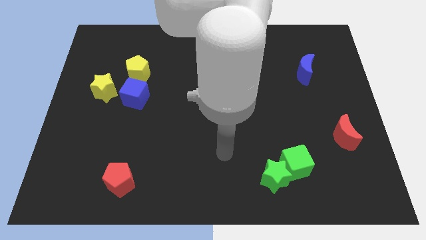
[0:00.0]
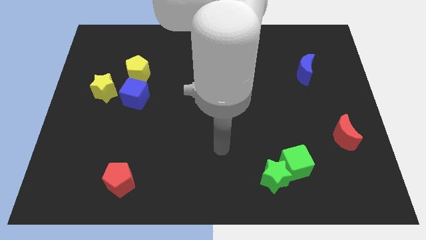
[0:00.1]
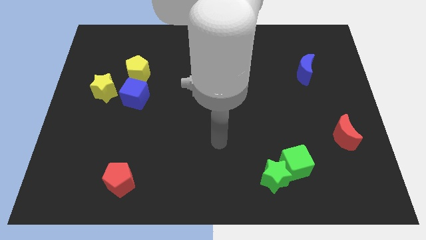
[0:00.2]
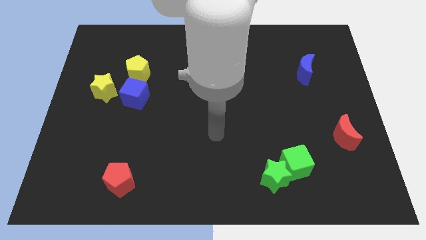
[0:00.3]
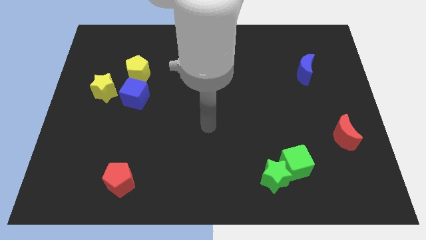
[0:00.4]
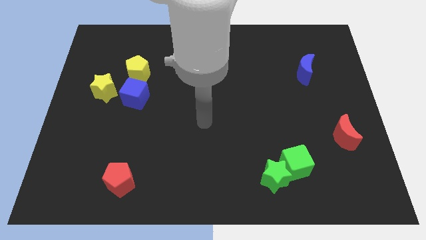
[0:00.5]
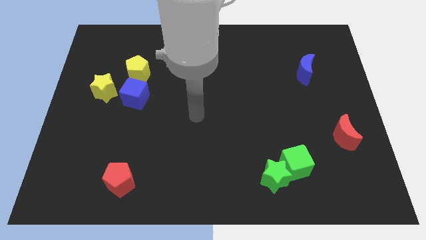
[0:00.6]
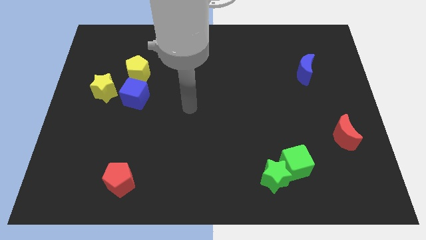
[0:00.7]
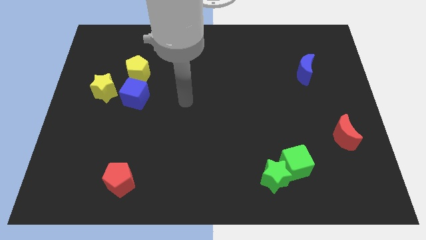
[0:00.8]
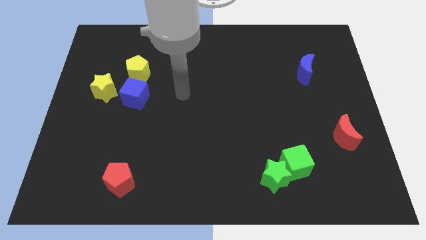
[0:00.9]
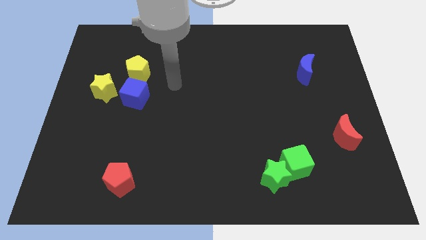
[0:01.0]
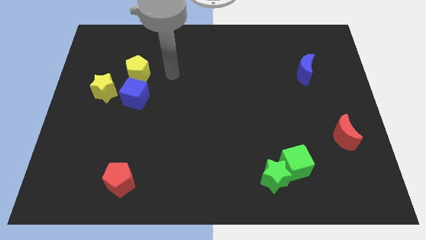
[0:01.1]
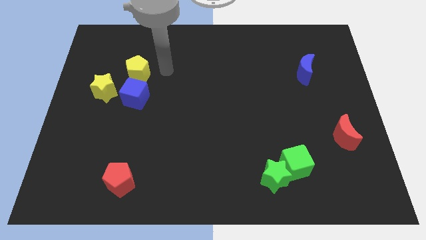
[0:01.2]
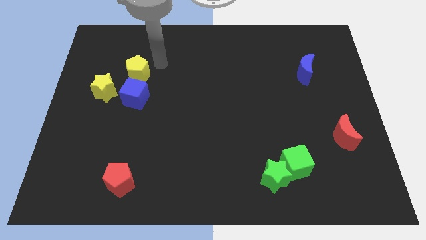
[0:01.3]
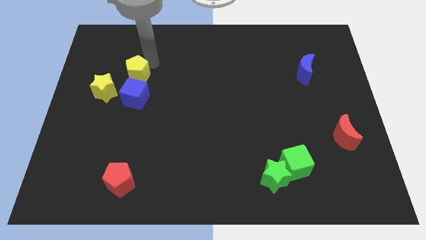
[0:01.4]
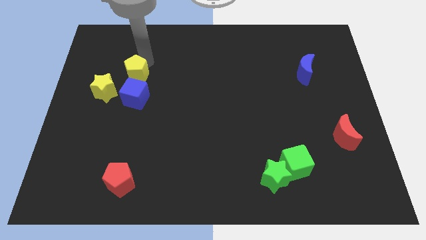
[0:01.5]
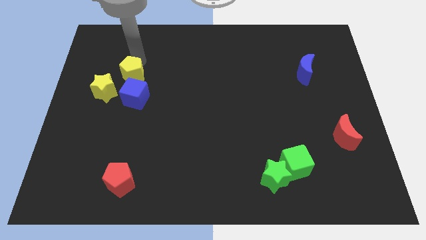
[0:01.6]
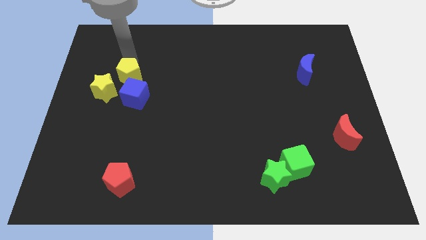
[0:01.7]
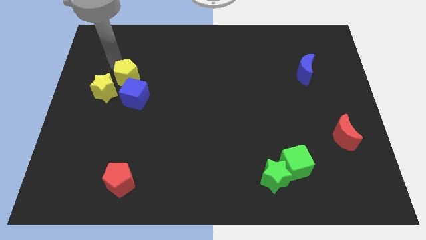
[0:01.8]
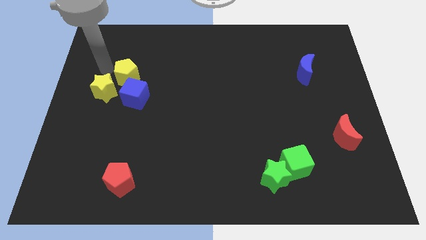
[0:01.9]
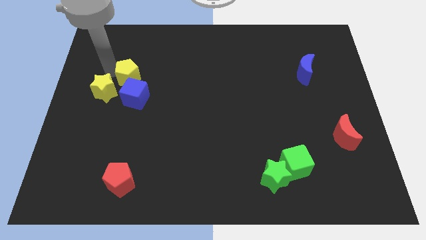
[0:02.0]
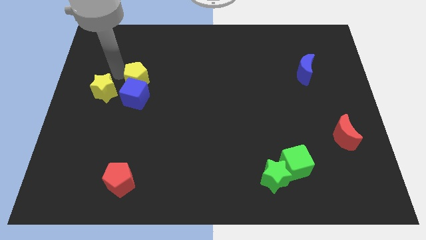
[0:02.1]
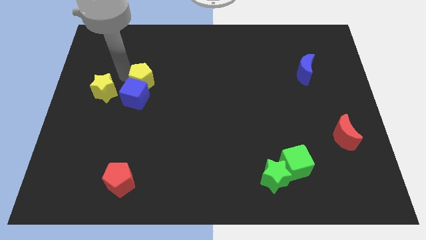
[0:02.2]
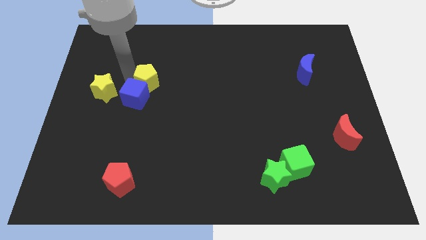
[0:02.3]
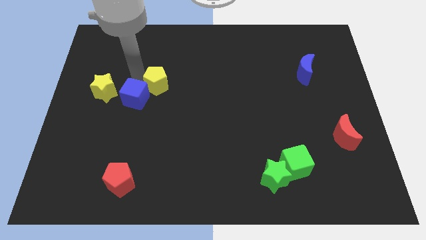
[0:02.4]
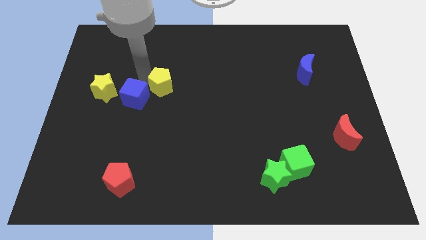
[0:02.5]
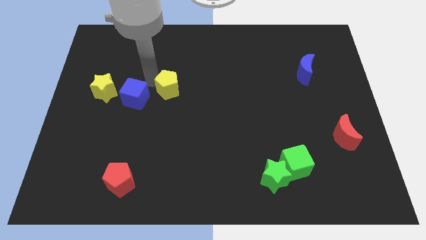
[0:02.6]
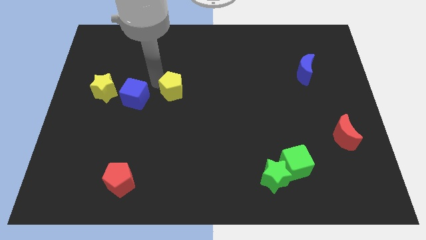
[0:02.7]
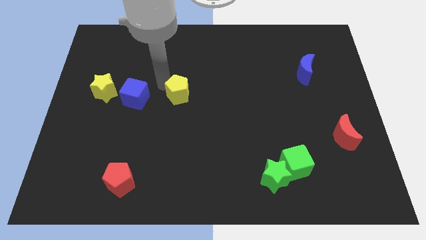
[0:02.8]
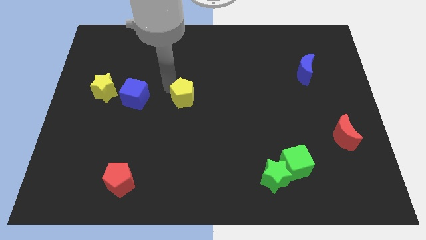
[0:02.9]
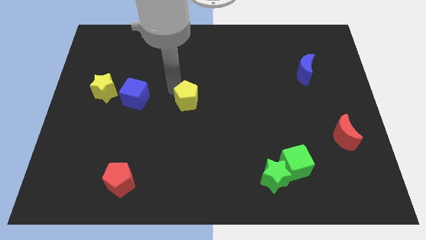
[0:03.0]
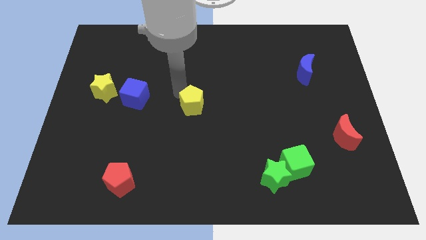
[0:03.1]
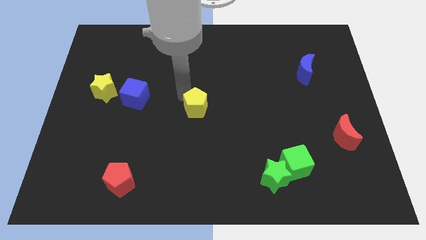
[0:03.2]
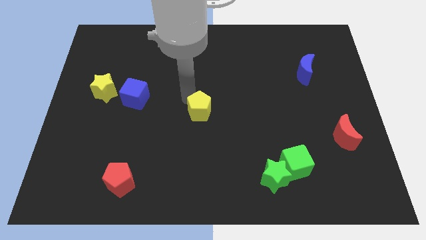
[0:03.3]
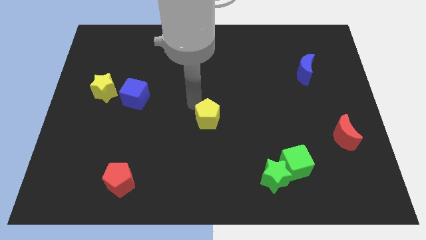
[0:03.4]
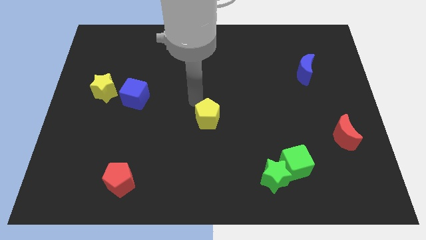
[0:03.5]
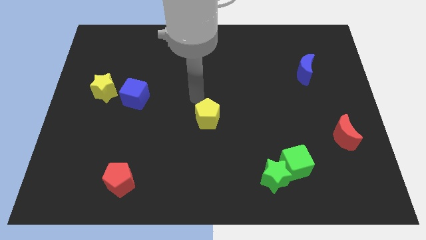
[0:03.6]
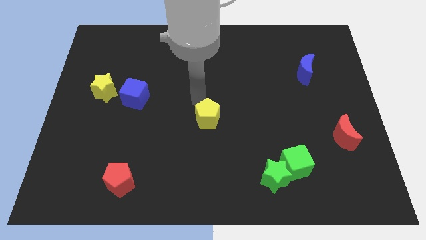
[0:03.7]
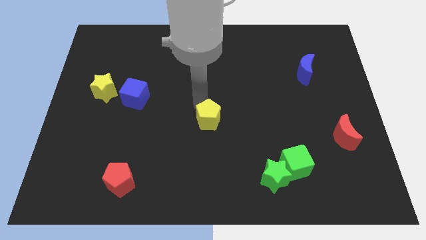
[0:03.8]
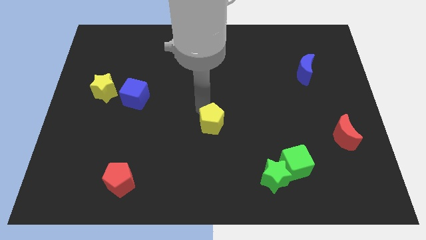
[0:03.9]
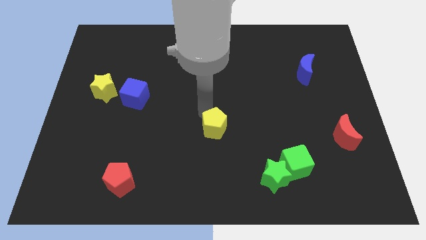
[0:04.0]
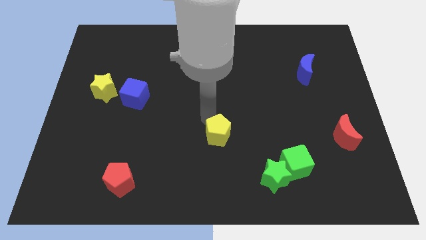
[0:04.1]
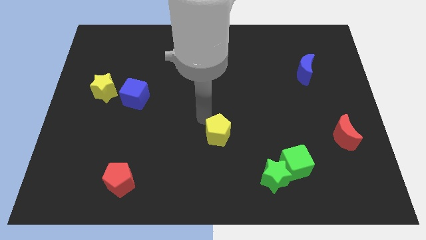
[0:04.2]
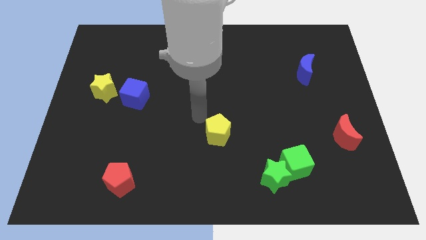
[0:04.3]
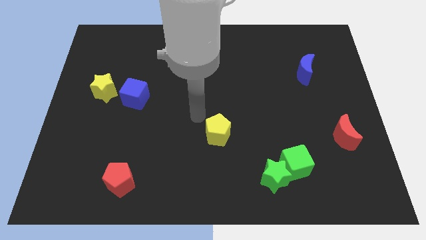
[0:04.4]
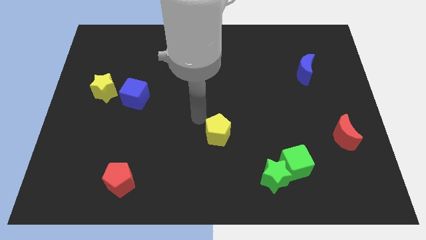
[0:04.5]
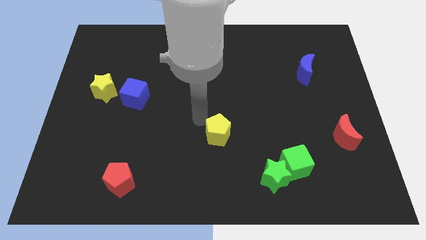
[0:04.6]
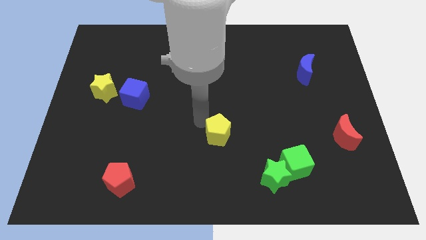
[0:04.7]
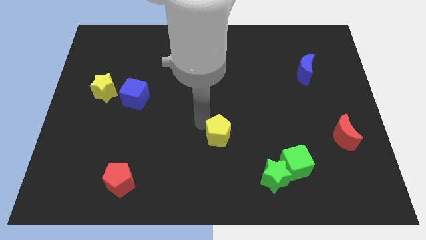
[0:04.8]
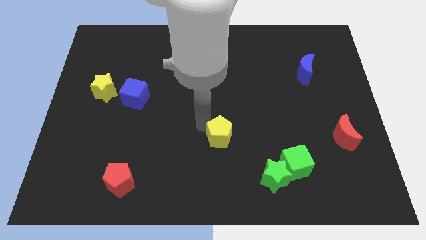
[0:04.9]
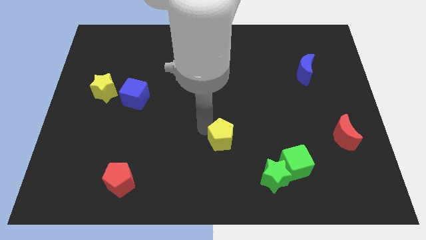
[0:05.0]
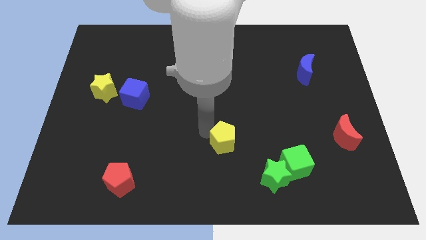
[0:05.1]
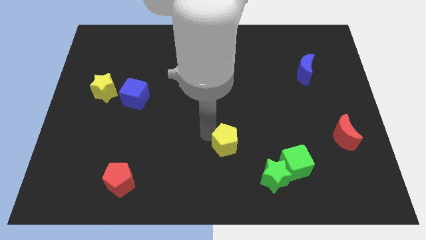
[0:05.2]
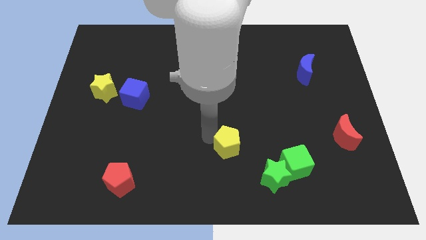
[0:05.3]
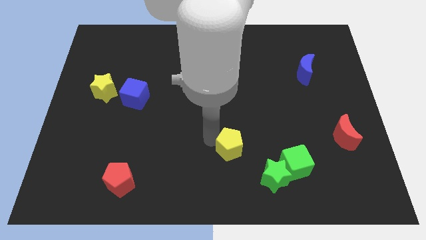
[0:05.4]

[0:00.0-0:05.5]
push the yellow pentagon just left of the green cube

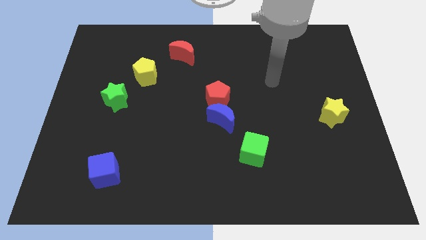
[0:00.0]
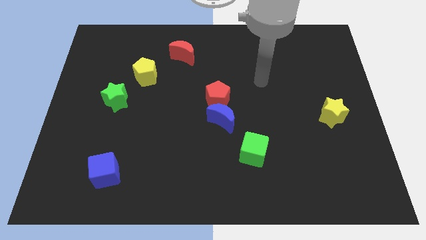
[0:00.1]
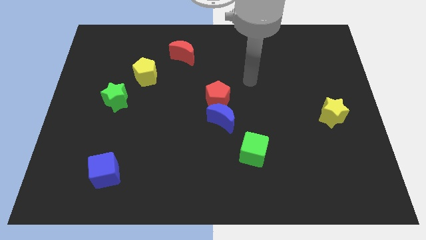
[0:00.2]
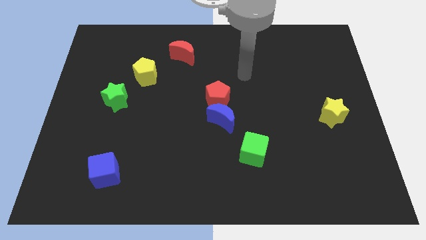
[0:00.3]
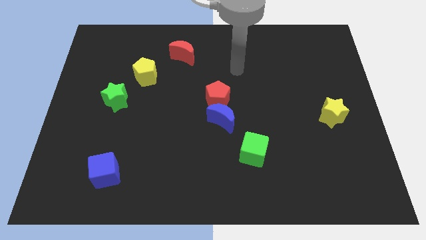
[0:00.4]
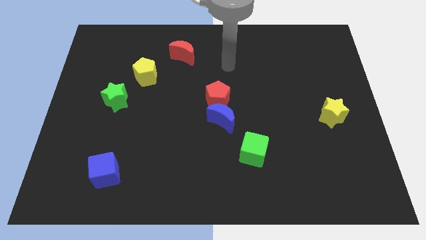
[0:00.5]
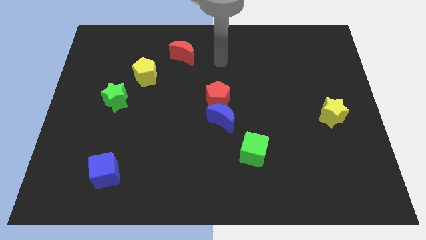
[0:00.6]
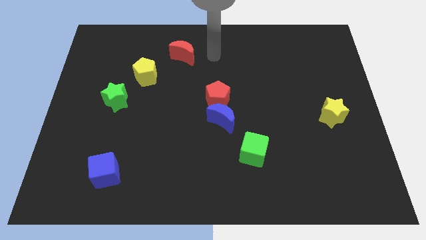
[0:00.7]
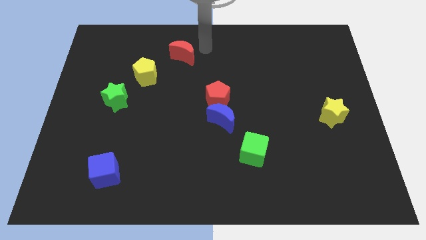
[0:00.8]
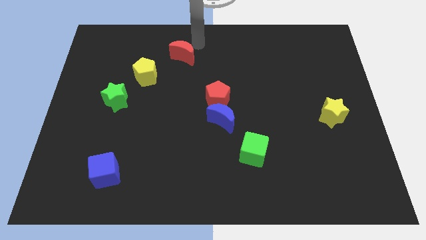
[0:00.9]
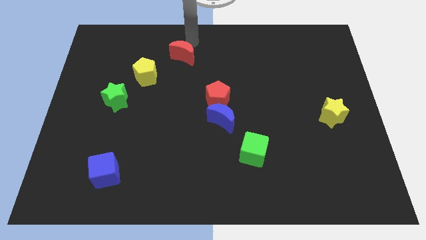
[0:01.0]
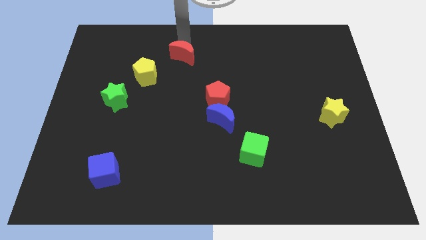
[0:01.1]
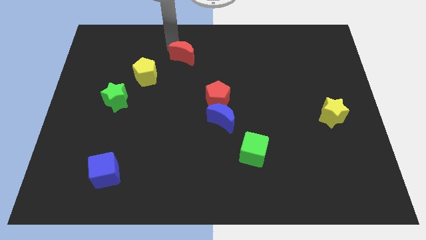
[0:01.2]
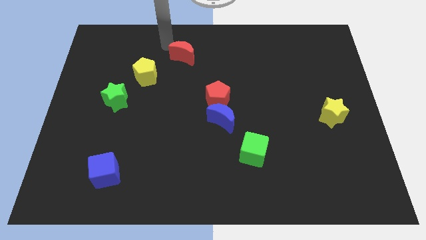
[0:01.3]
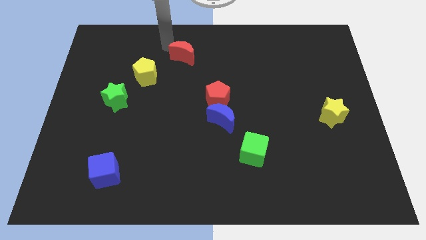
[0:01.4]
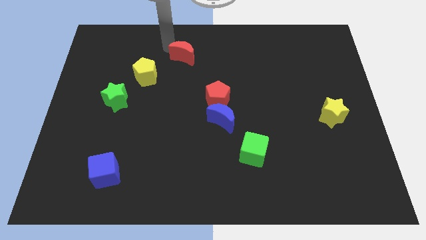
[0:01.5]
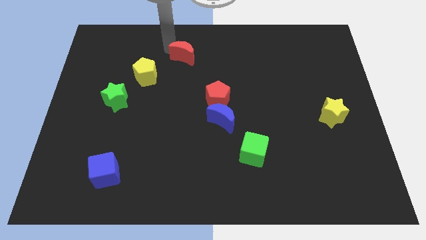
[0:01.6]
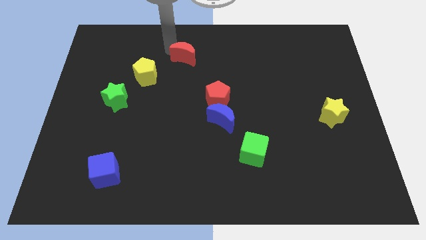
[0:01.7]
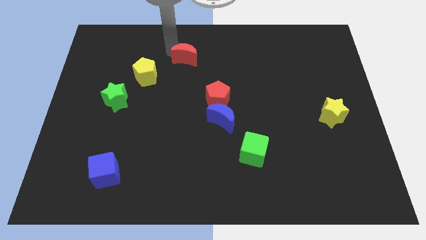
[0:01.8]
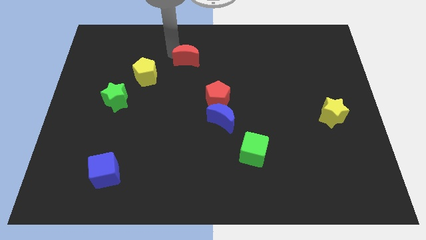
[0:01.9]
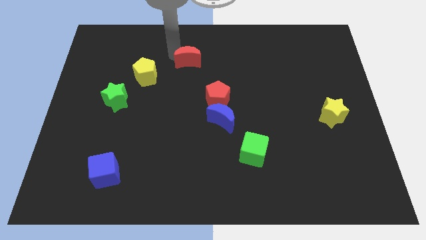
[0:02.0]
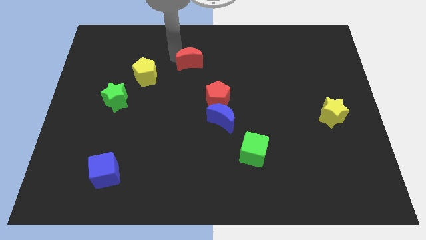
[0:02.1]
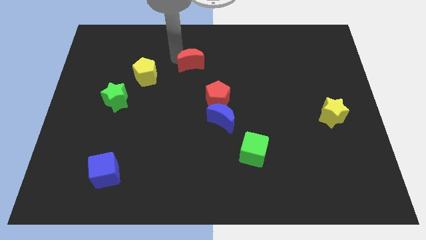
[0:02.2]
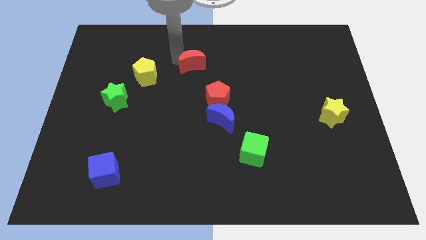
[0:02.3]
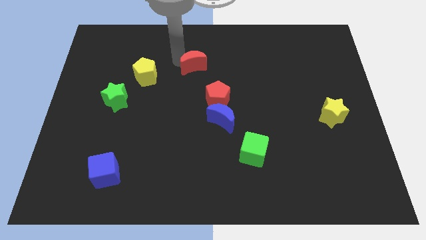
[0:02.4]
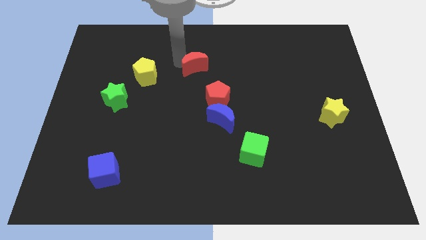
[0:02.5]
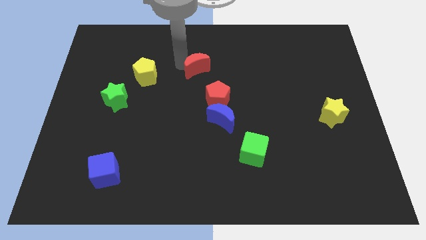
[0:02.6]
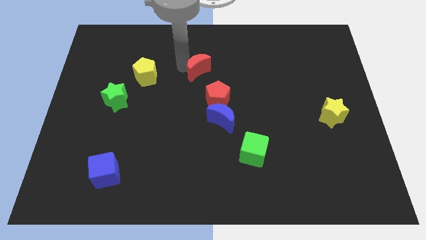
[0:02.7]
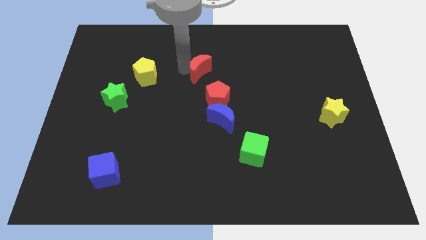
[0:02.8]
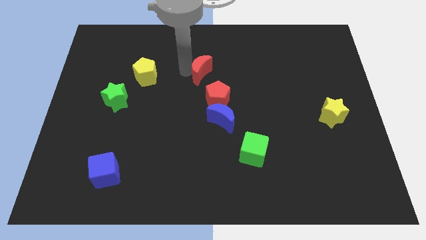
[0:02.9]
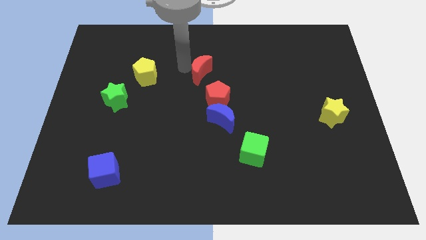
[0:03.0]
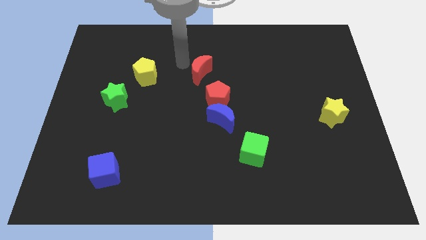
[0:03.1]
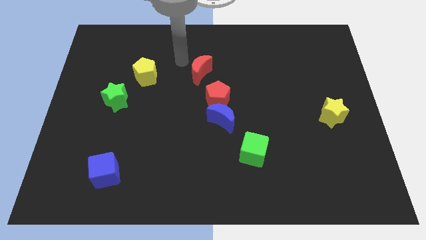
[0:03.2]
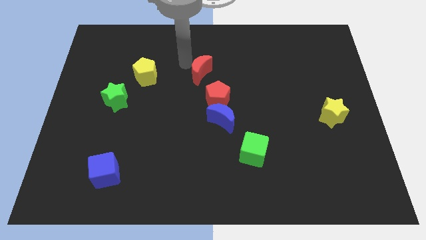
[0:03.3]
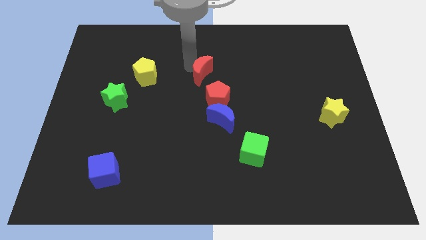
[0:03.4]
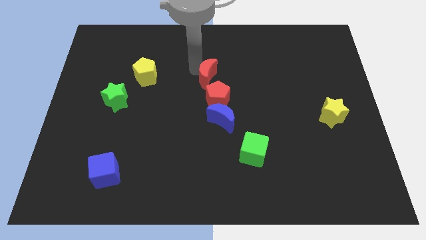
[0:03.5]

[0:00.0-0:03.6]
slide the red moon to the top of the blue moon
